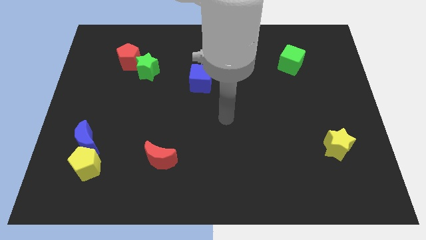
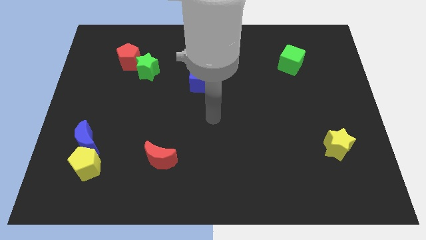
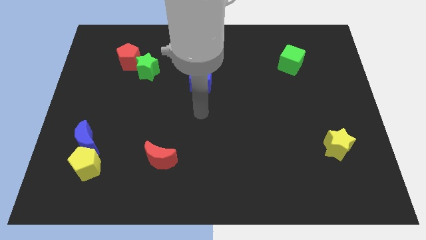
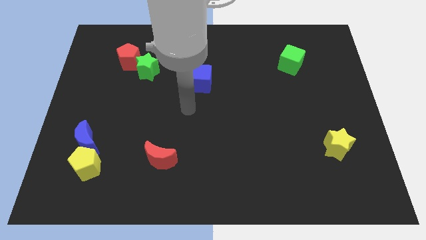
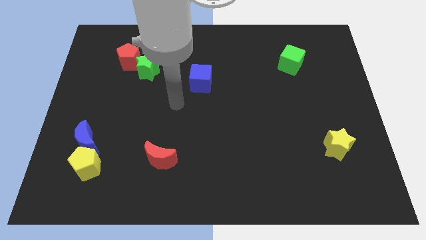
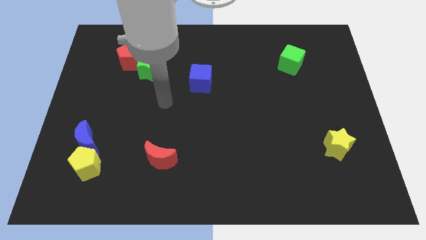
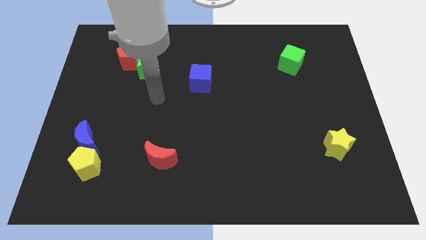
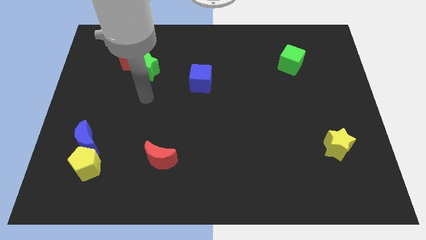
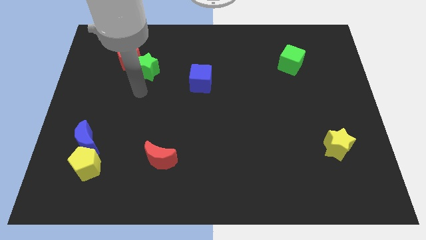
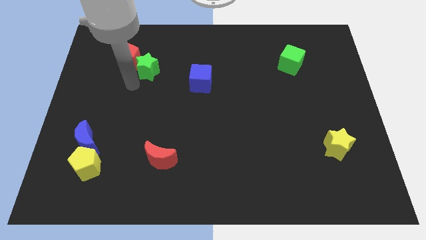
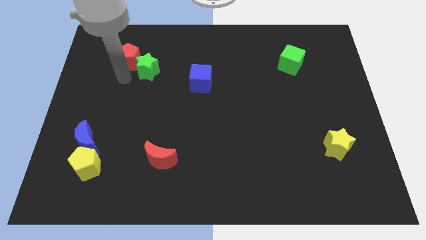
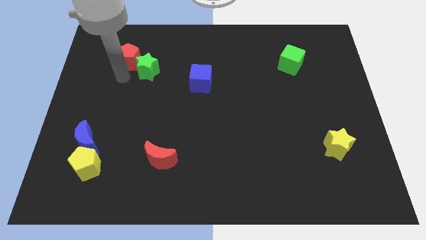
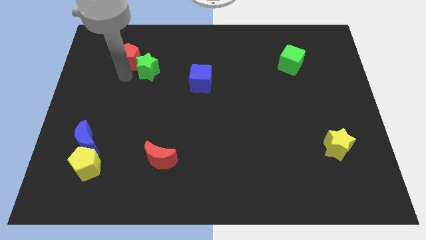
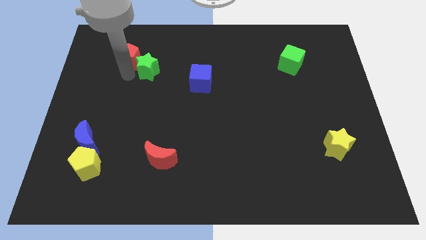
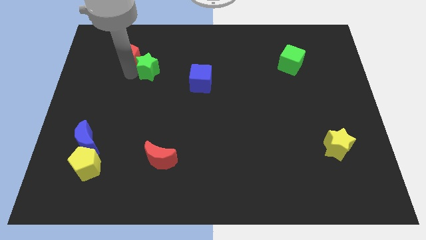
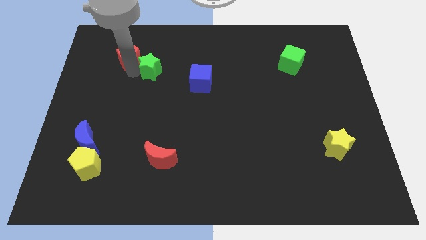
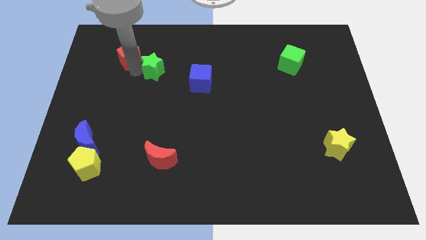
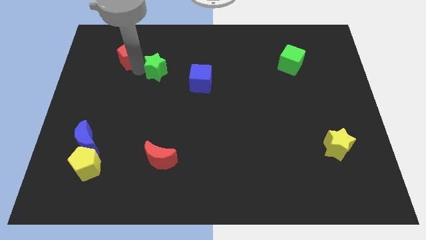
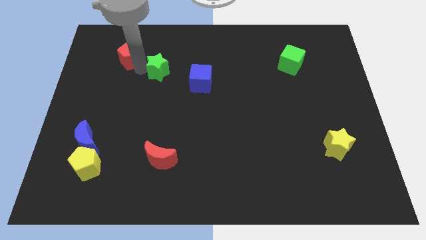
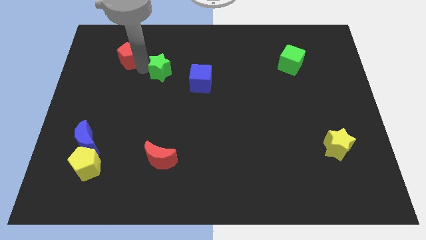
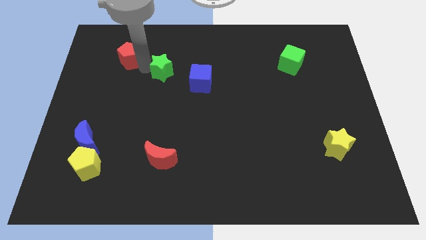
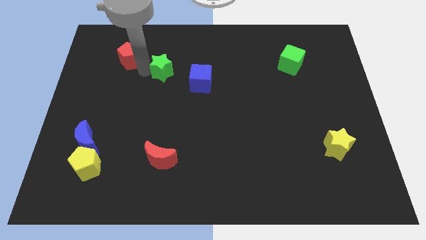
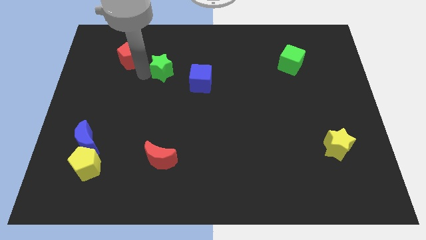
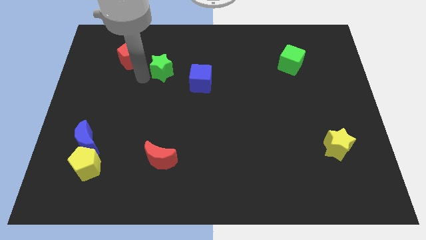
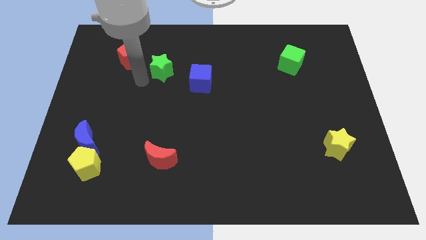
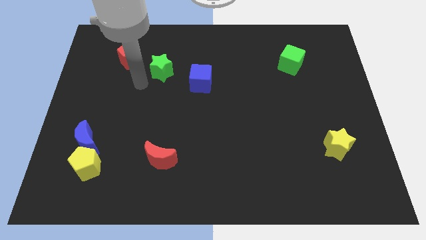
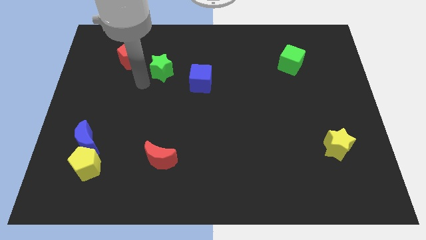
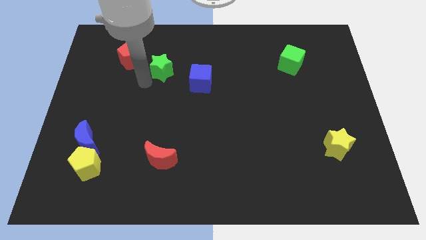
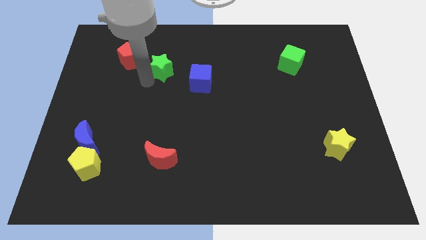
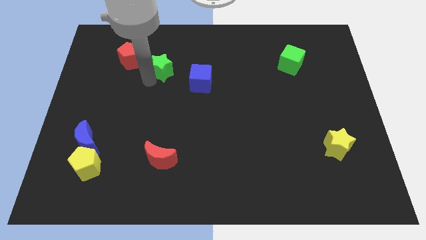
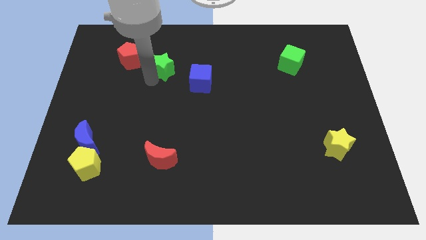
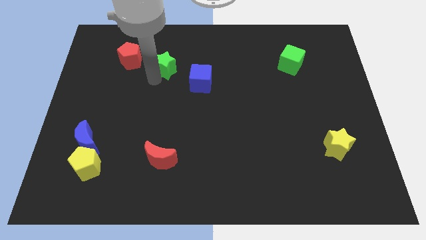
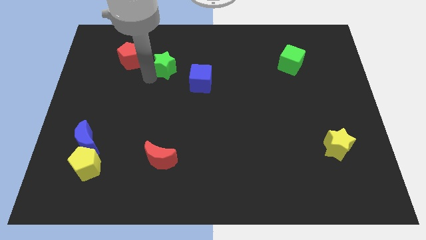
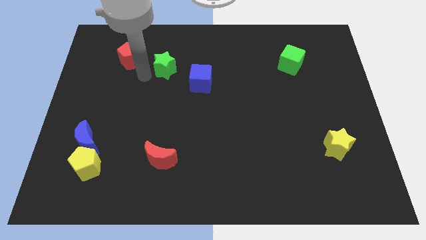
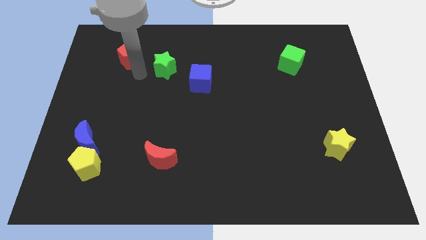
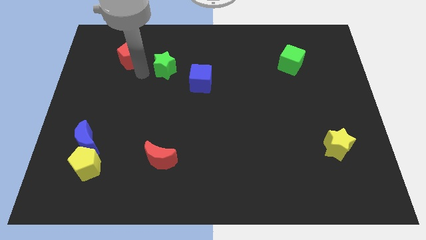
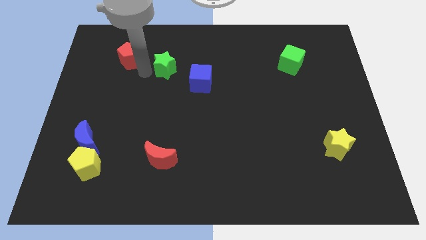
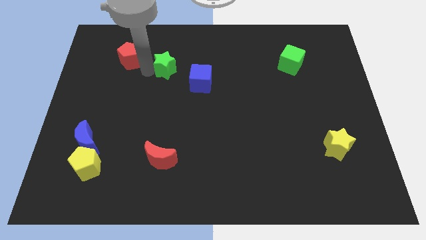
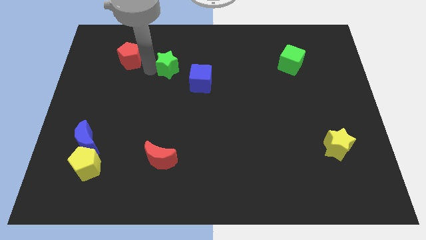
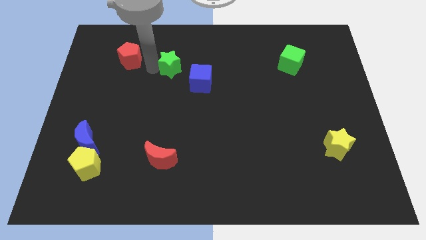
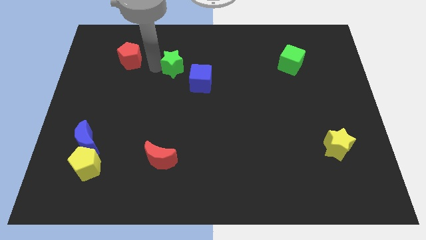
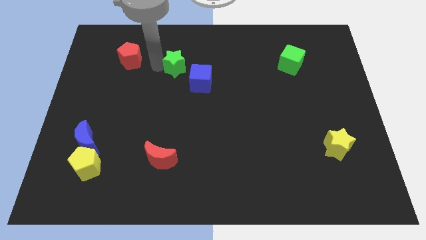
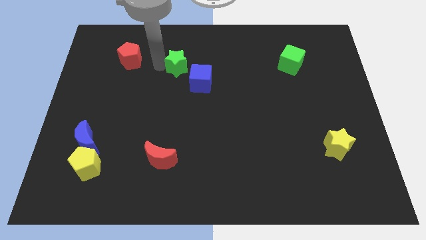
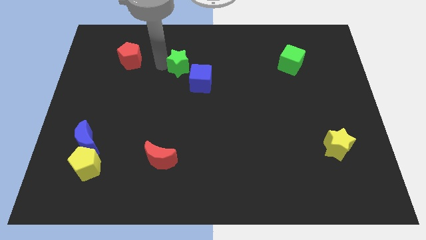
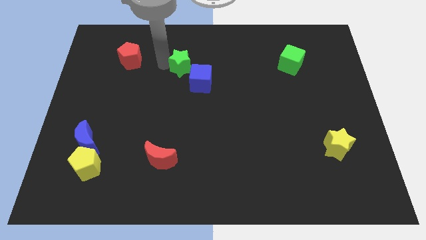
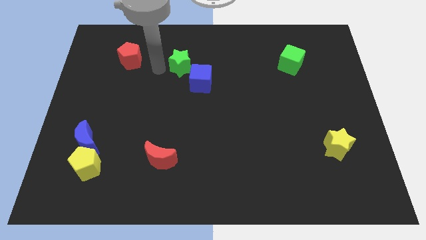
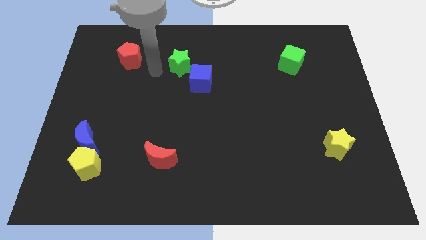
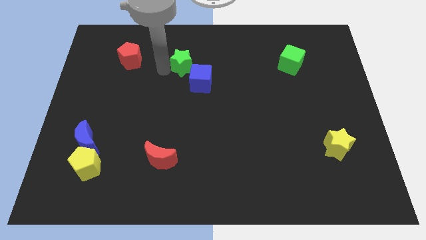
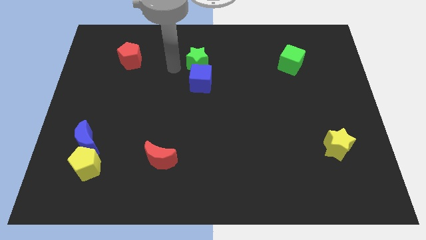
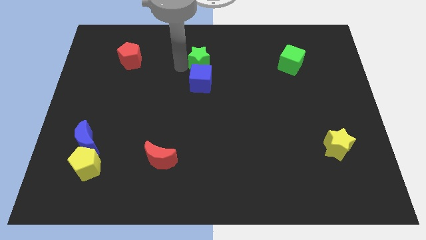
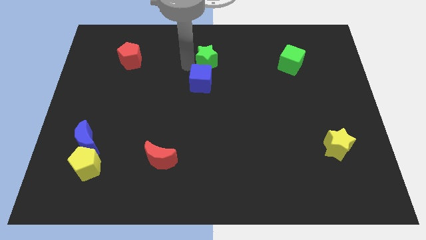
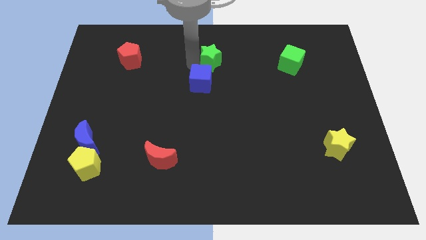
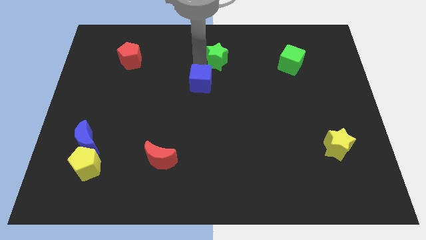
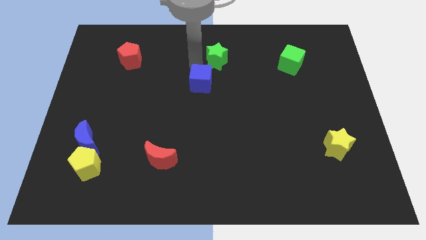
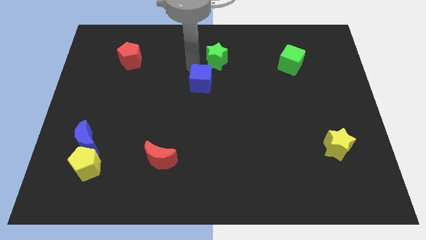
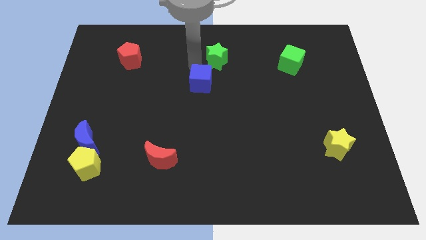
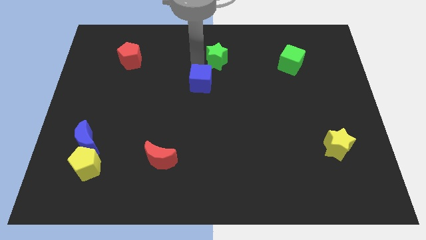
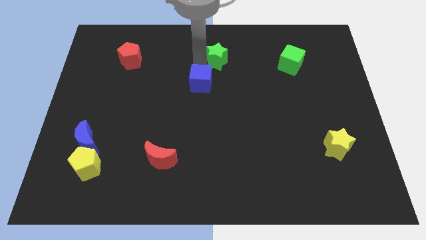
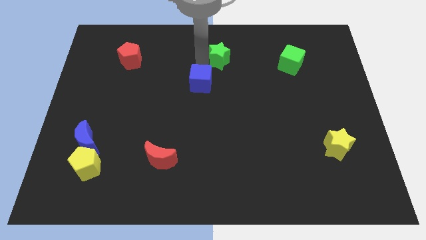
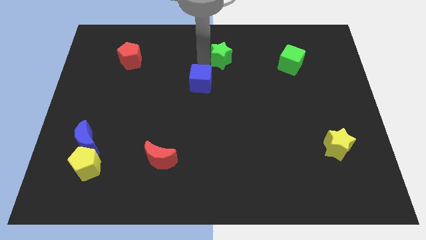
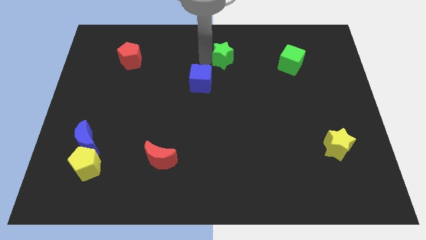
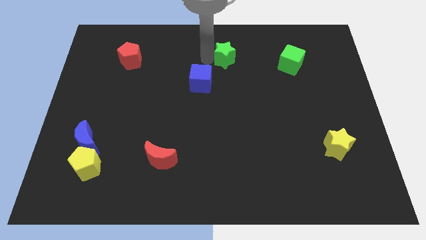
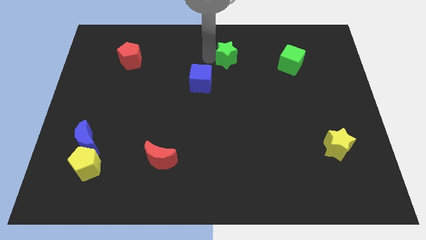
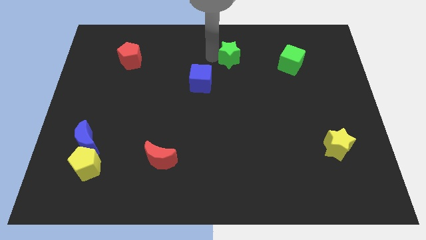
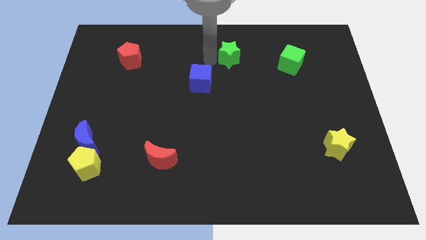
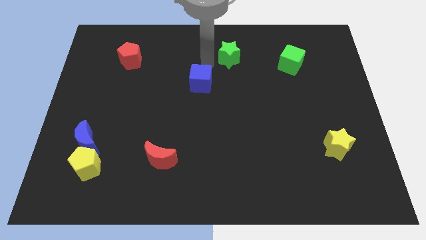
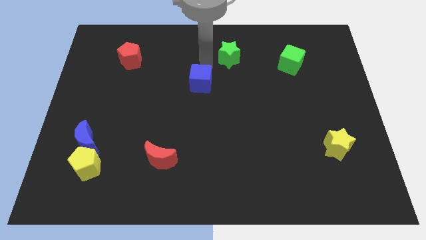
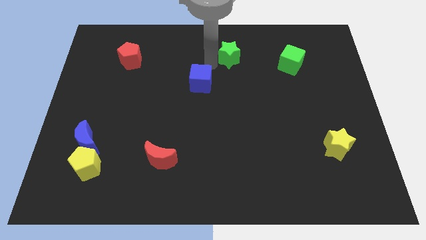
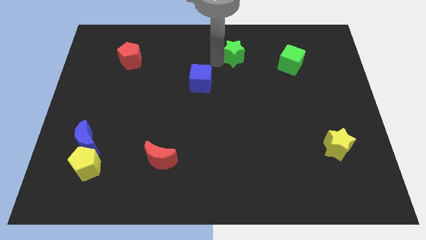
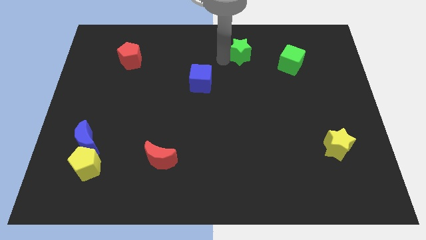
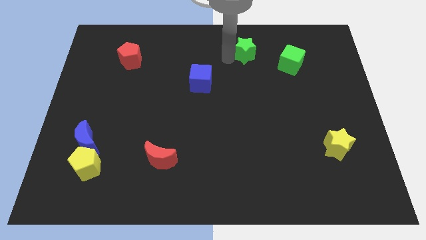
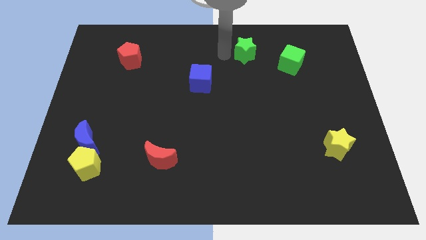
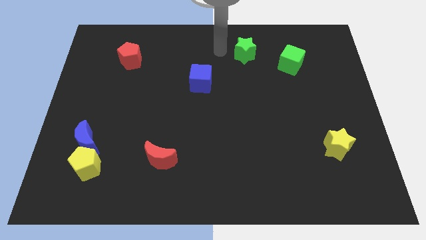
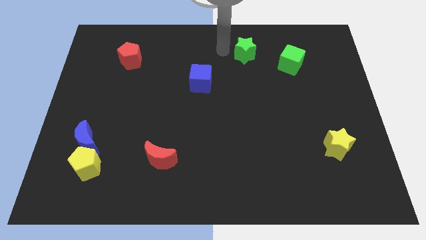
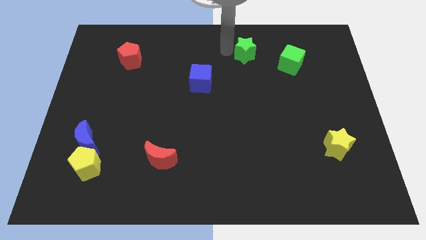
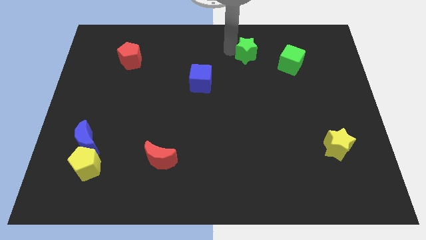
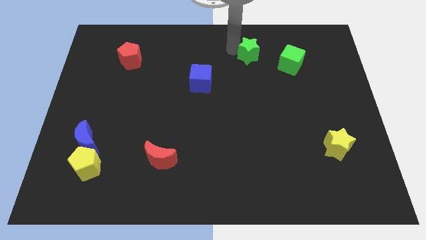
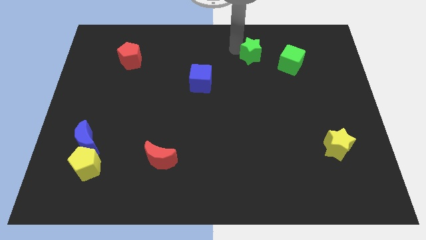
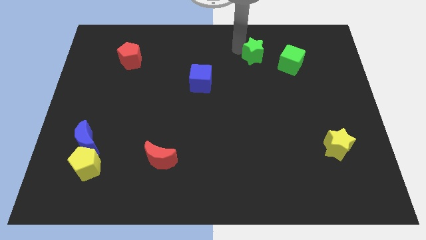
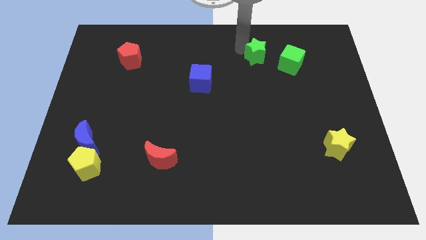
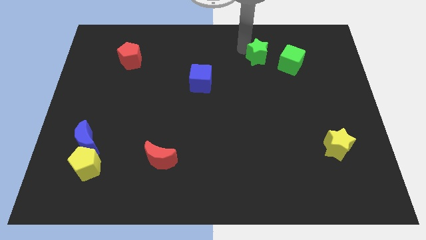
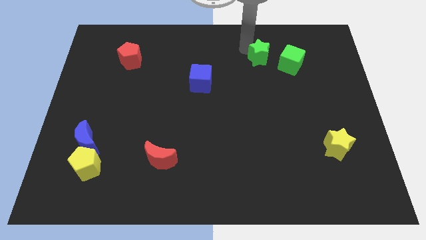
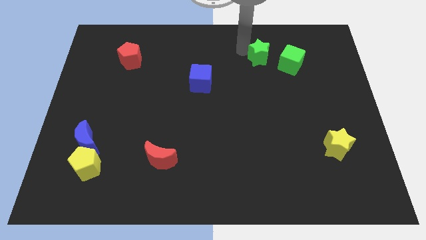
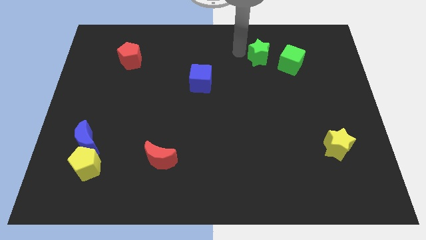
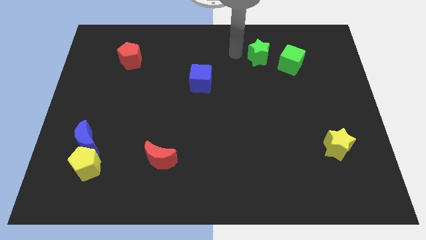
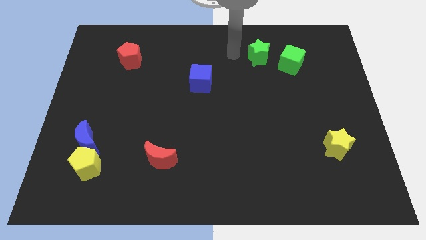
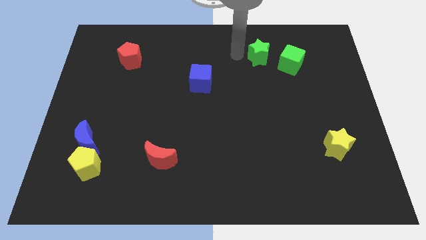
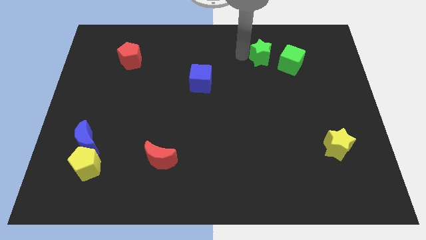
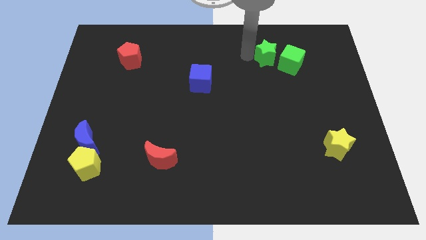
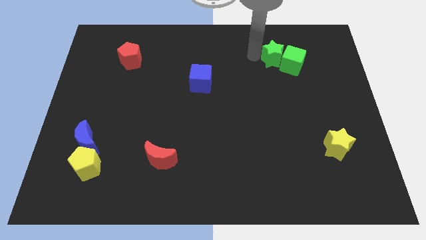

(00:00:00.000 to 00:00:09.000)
push the green star close to the green cube
